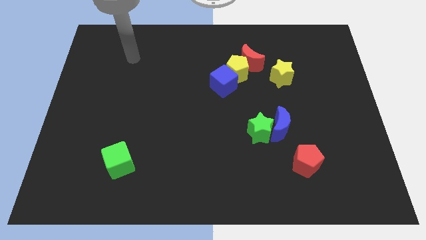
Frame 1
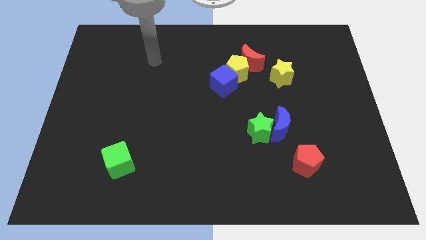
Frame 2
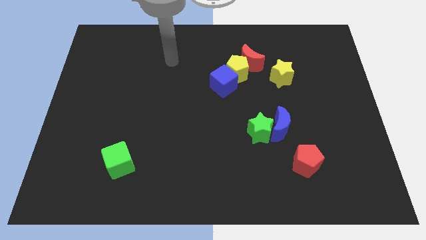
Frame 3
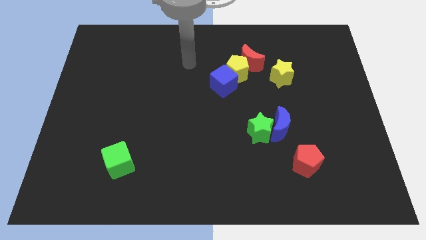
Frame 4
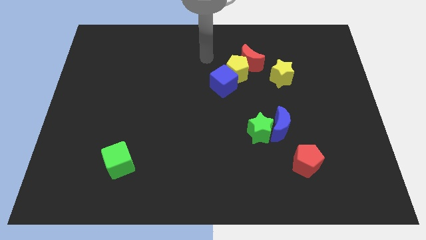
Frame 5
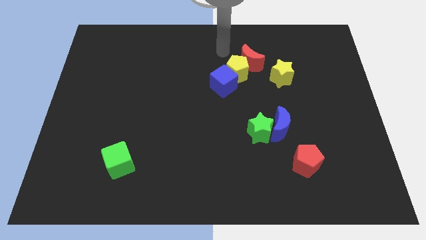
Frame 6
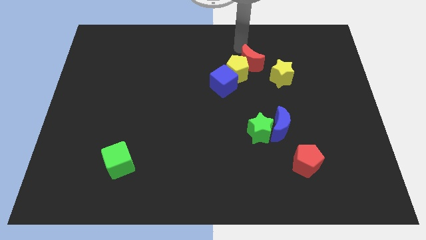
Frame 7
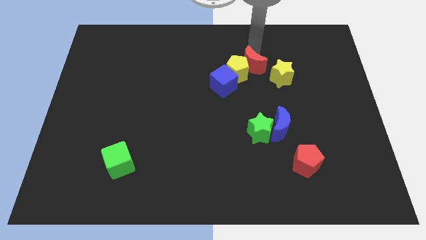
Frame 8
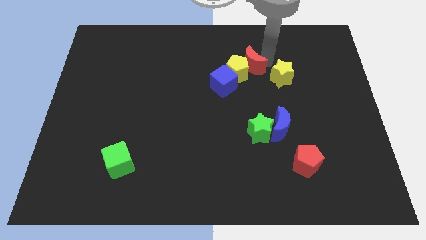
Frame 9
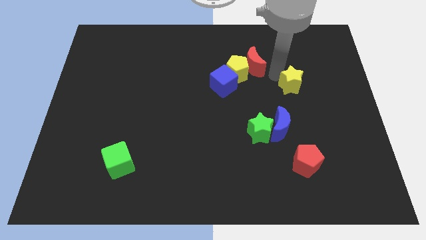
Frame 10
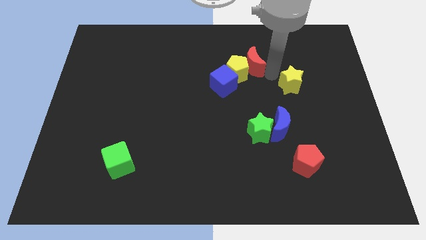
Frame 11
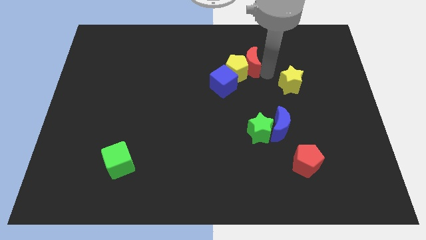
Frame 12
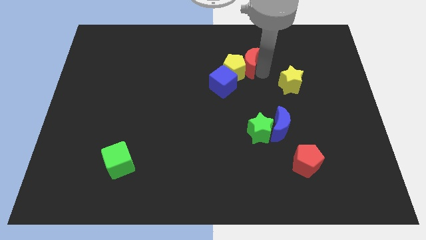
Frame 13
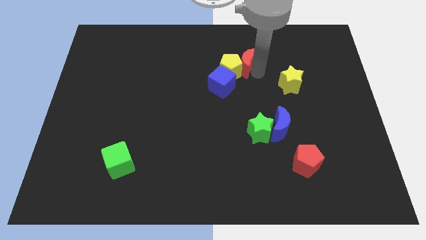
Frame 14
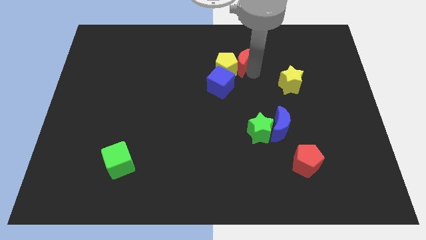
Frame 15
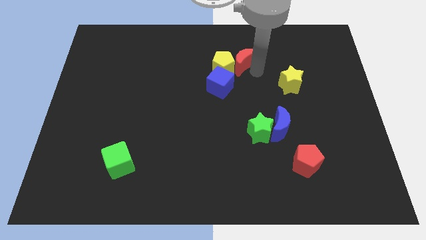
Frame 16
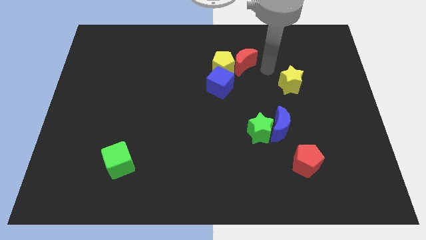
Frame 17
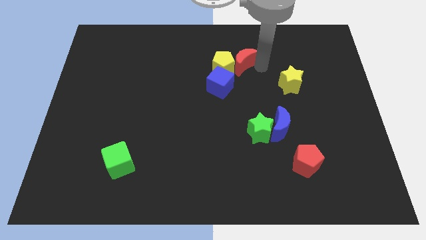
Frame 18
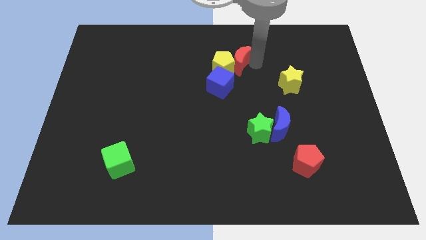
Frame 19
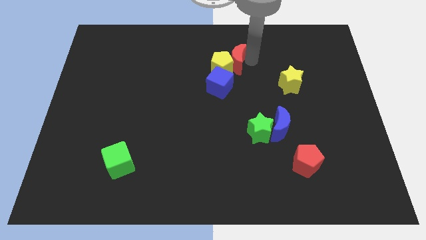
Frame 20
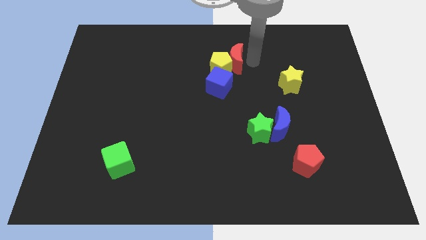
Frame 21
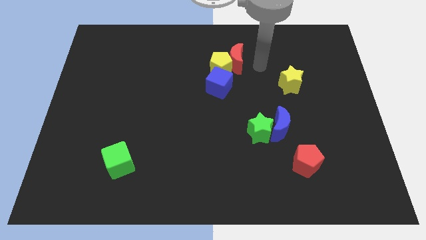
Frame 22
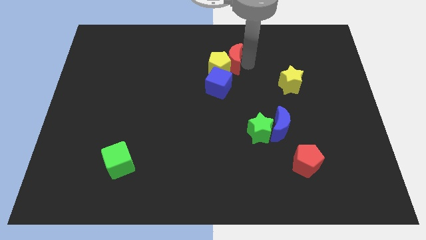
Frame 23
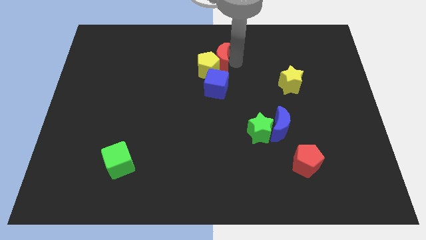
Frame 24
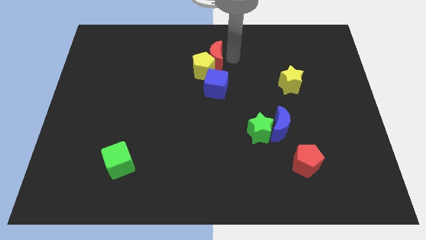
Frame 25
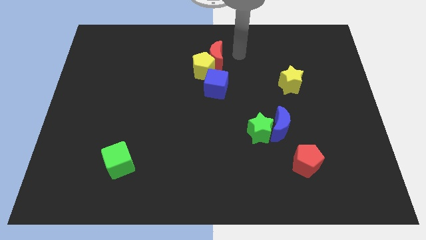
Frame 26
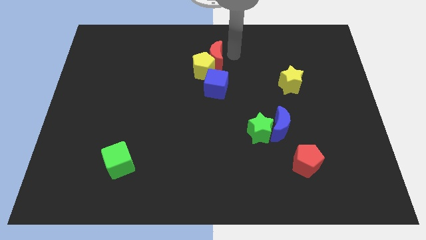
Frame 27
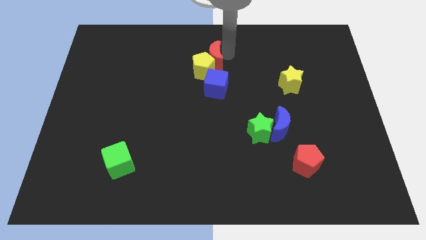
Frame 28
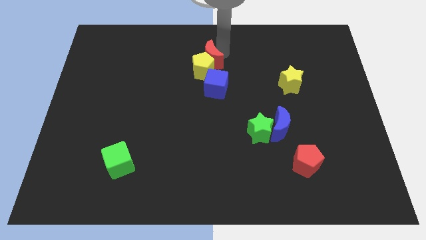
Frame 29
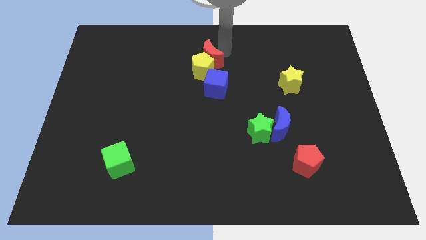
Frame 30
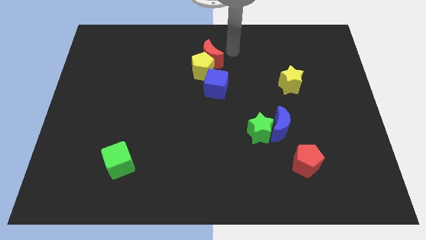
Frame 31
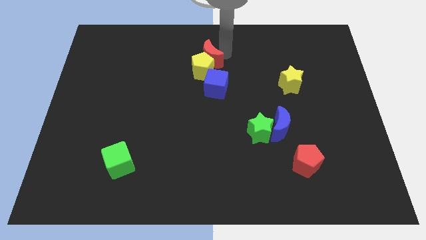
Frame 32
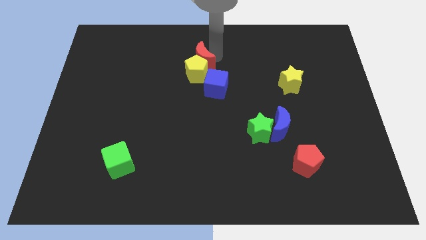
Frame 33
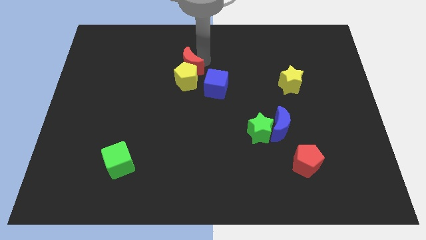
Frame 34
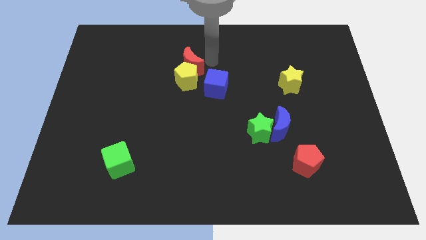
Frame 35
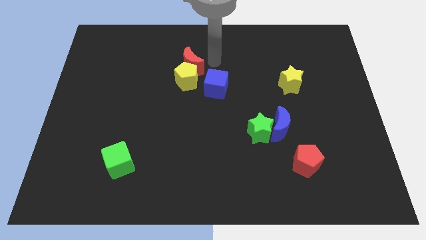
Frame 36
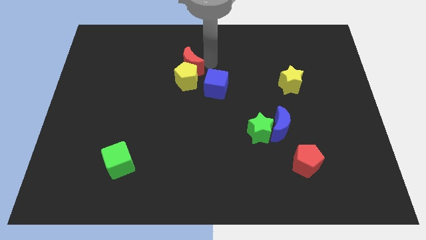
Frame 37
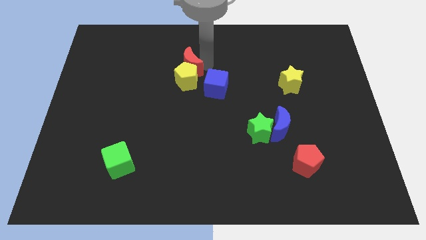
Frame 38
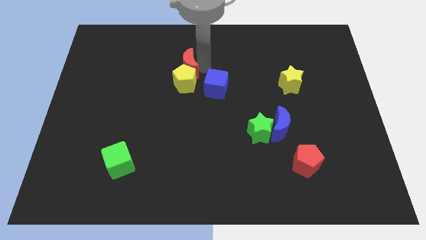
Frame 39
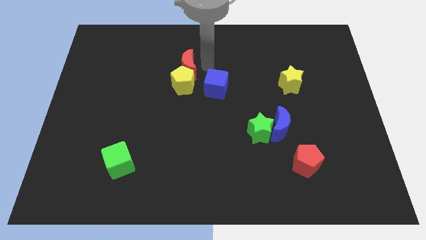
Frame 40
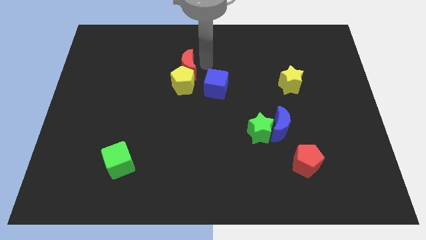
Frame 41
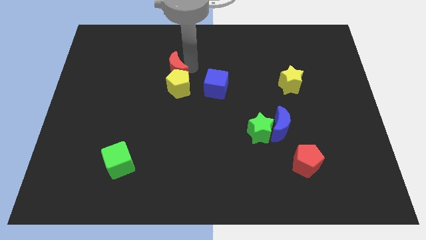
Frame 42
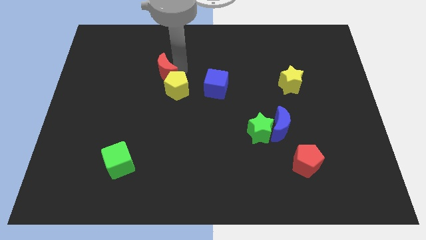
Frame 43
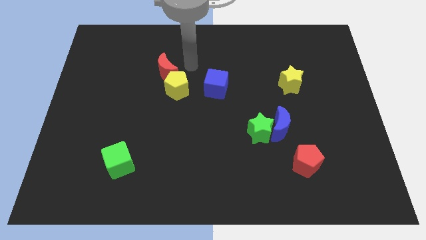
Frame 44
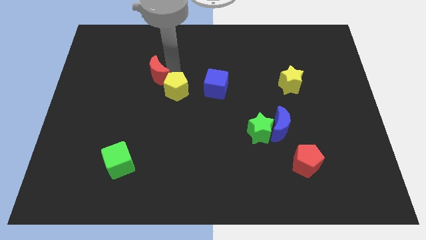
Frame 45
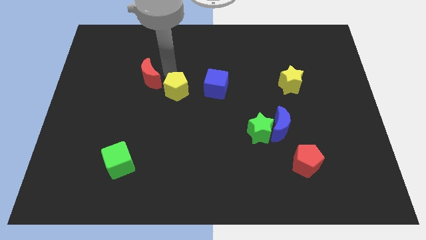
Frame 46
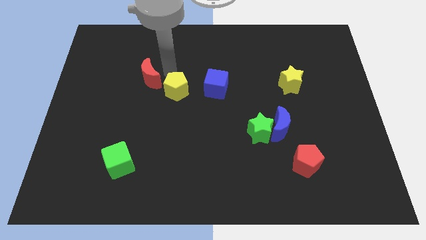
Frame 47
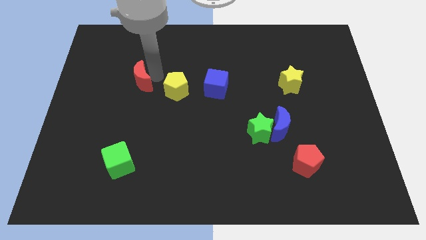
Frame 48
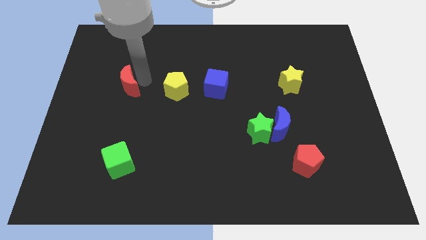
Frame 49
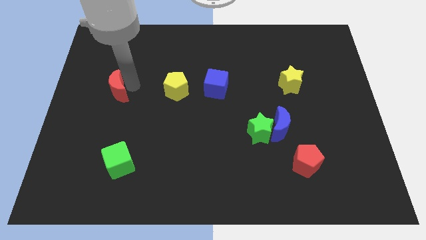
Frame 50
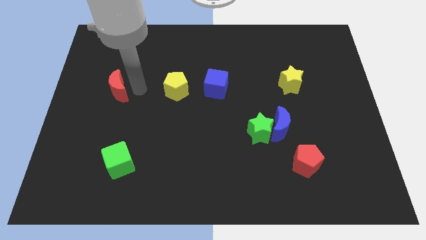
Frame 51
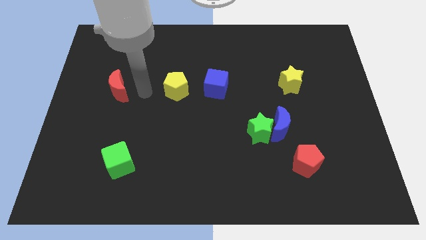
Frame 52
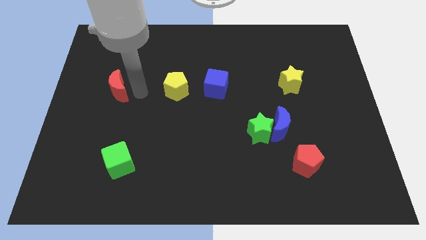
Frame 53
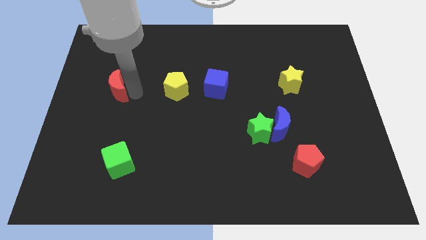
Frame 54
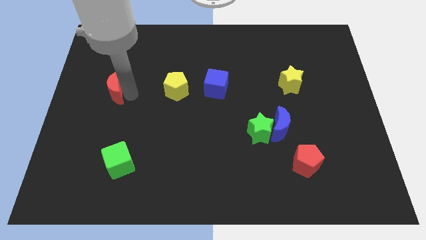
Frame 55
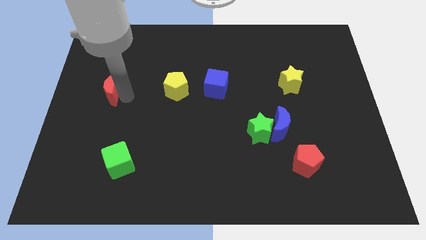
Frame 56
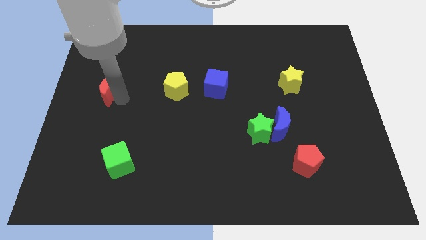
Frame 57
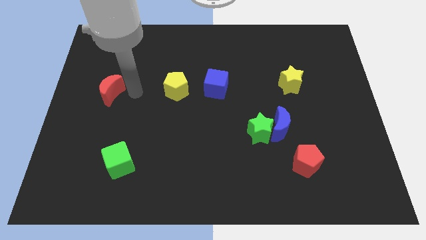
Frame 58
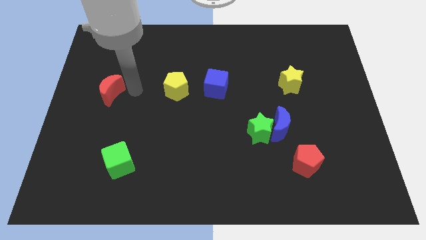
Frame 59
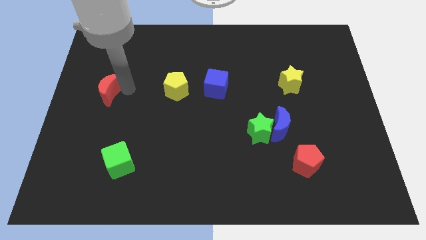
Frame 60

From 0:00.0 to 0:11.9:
move the red moon to the left side

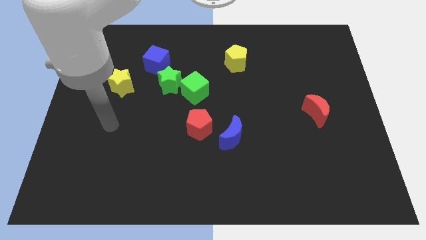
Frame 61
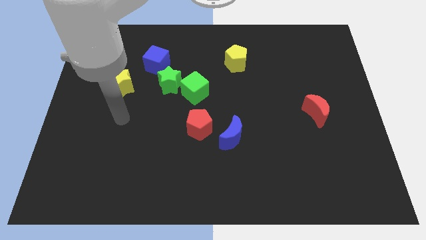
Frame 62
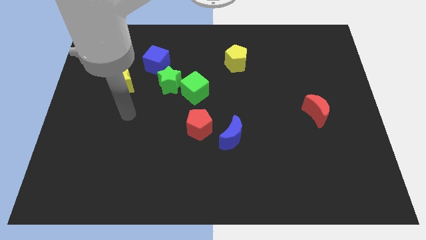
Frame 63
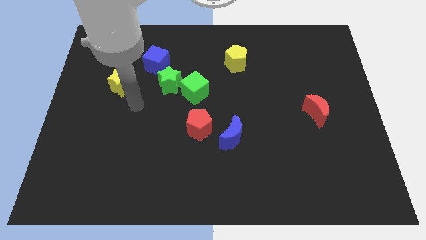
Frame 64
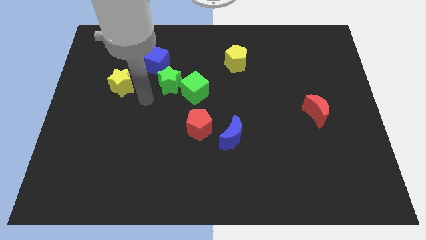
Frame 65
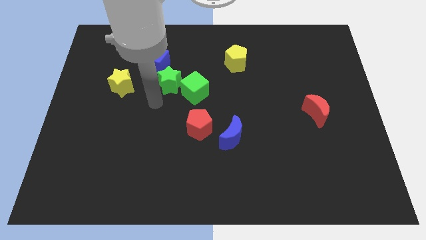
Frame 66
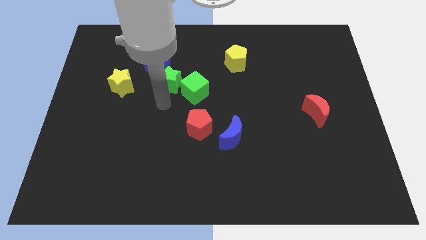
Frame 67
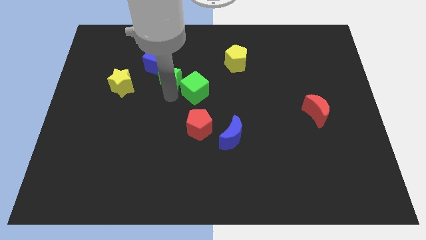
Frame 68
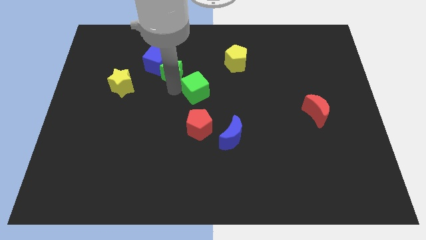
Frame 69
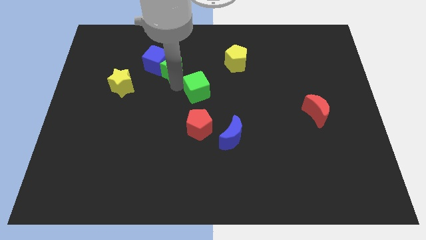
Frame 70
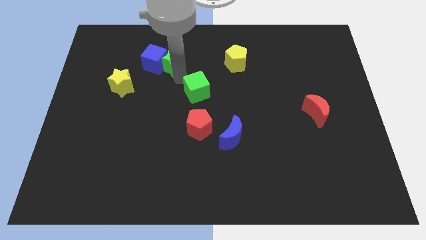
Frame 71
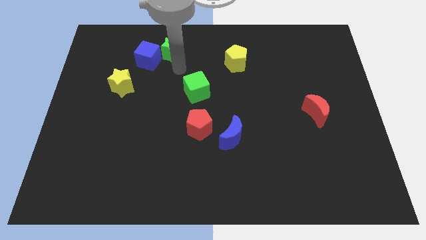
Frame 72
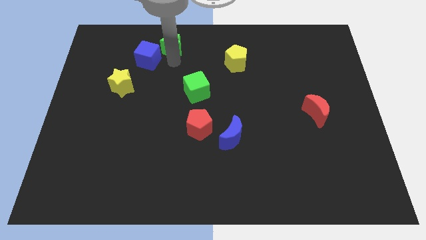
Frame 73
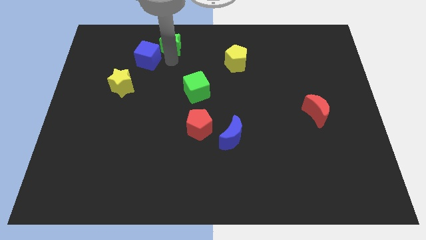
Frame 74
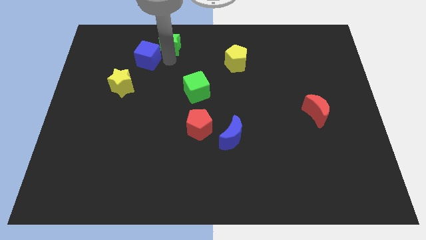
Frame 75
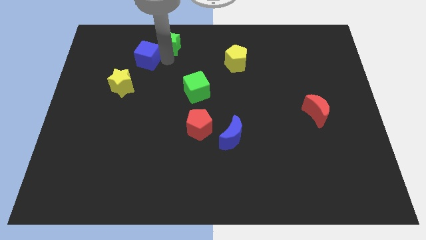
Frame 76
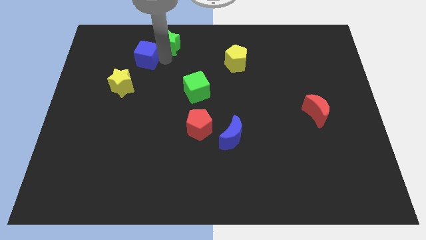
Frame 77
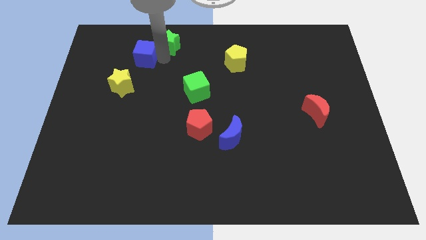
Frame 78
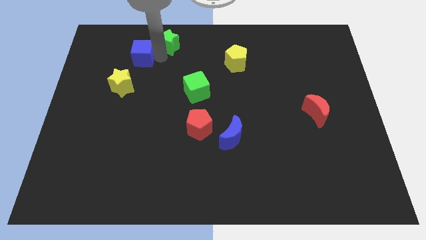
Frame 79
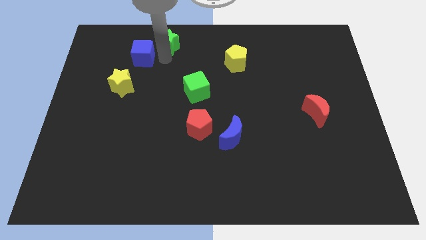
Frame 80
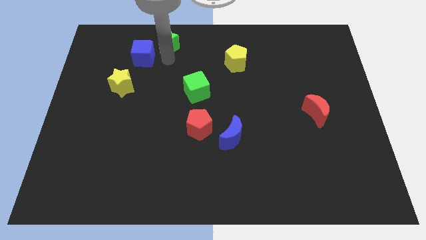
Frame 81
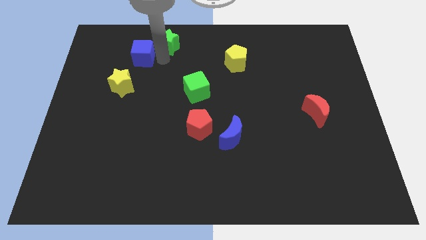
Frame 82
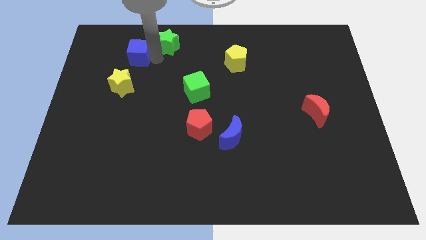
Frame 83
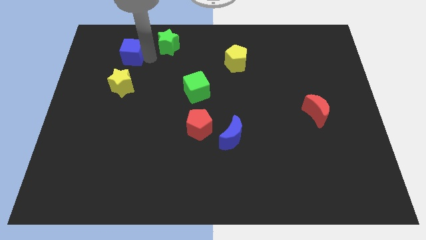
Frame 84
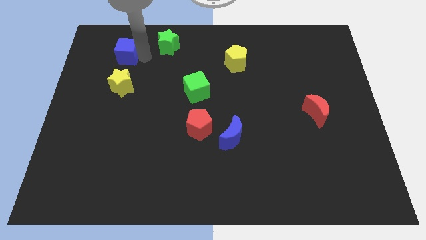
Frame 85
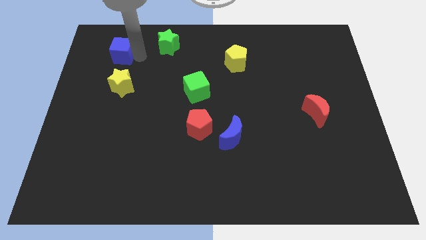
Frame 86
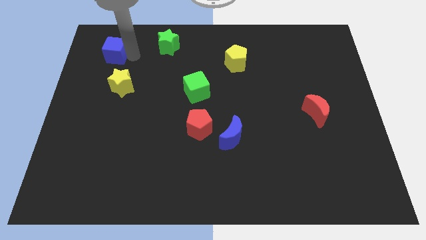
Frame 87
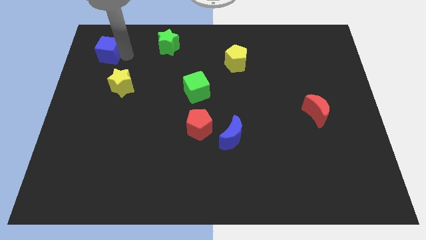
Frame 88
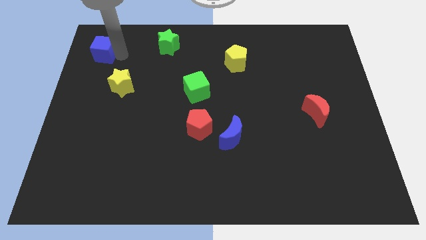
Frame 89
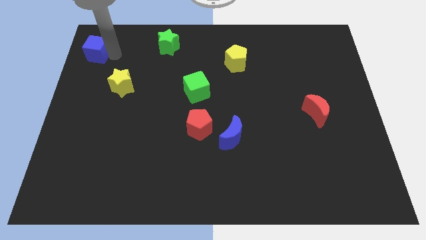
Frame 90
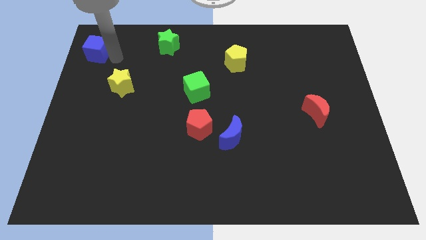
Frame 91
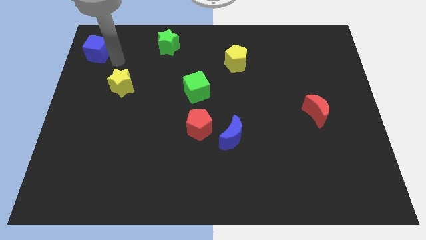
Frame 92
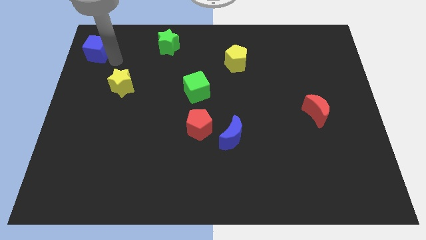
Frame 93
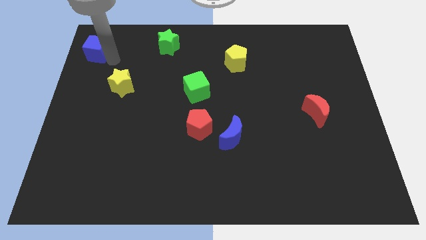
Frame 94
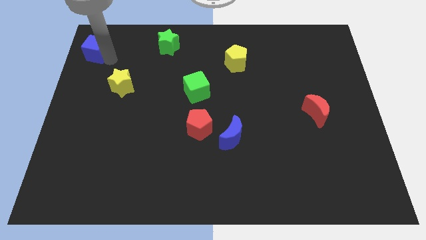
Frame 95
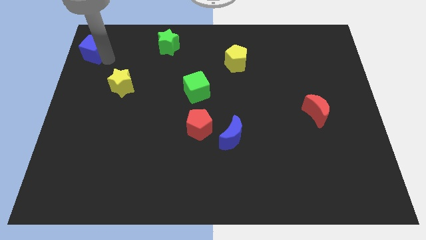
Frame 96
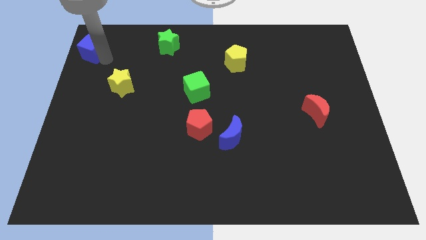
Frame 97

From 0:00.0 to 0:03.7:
move the blue cube to the top left
